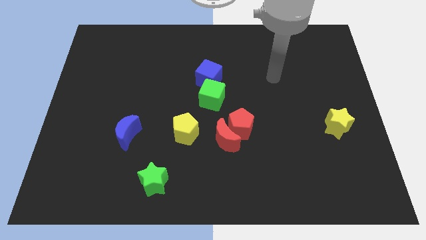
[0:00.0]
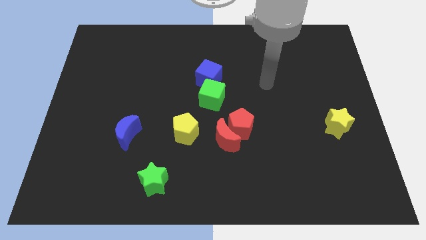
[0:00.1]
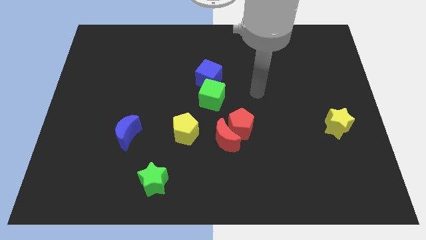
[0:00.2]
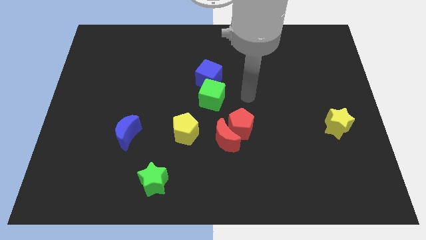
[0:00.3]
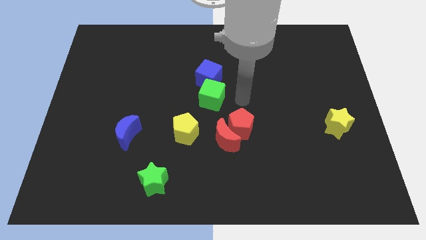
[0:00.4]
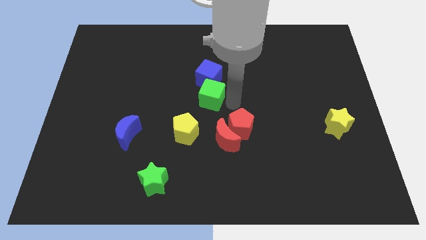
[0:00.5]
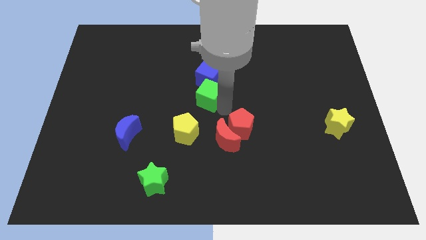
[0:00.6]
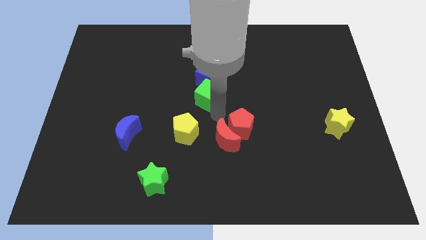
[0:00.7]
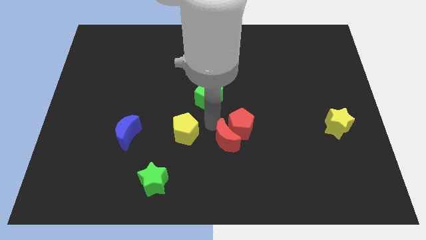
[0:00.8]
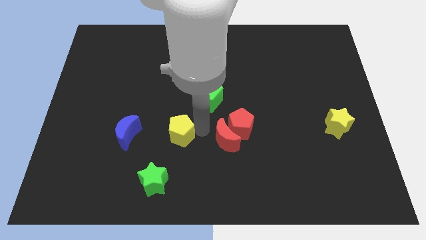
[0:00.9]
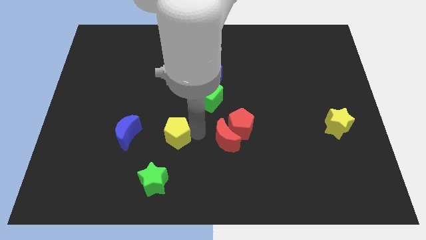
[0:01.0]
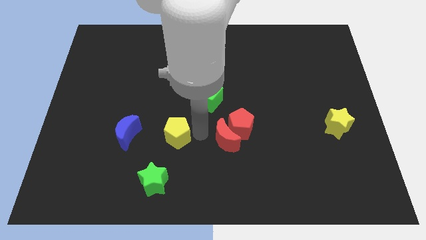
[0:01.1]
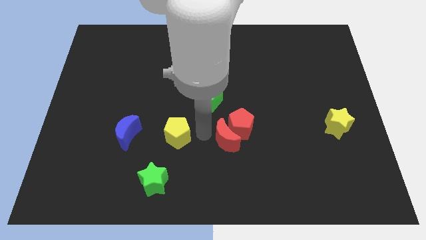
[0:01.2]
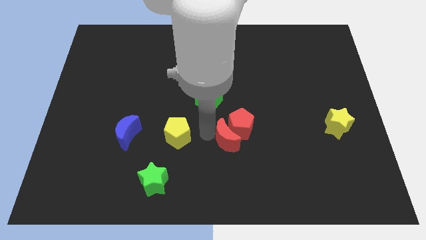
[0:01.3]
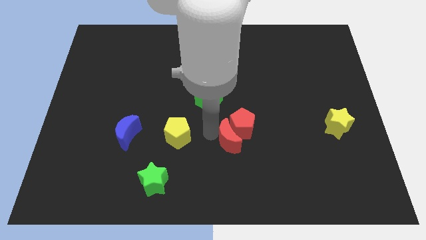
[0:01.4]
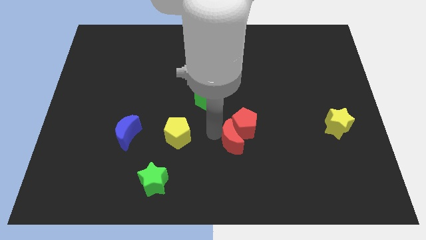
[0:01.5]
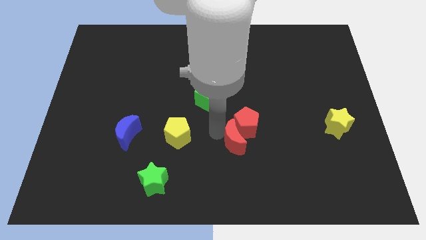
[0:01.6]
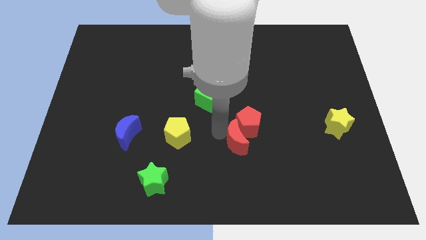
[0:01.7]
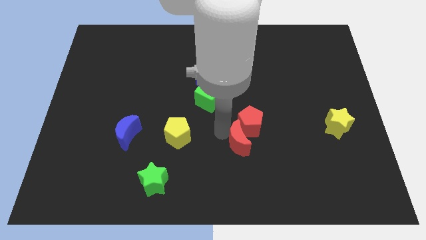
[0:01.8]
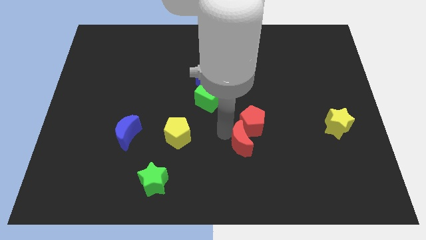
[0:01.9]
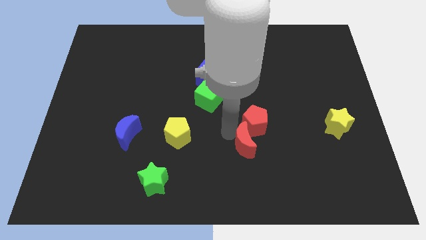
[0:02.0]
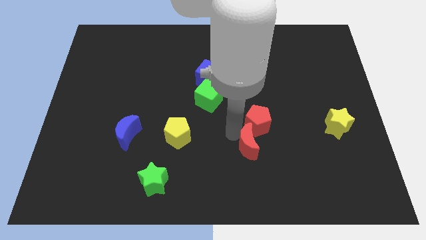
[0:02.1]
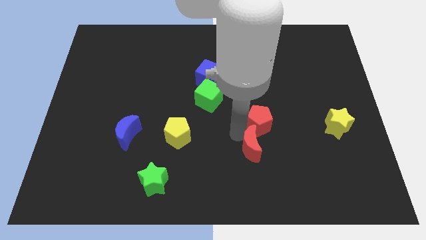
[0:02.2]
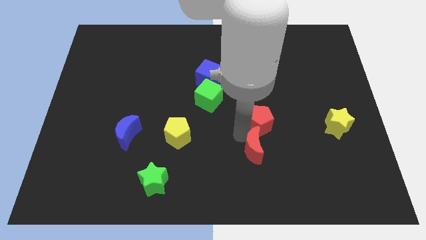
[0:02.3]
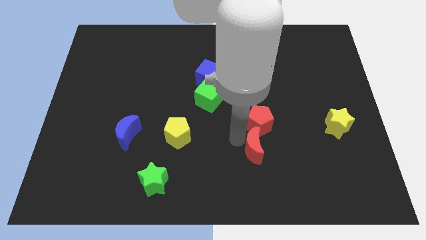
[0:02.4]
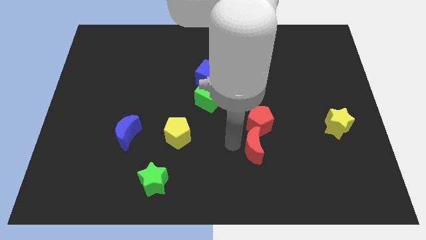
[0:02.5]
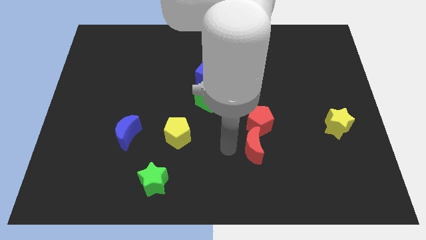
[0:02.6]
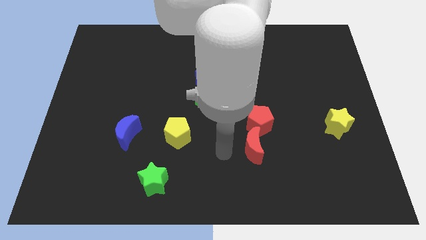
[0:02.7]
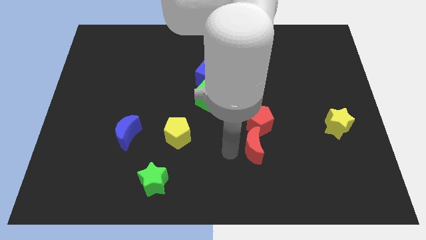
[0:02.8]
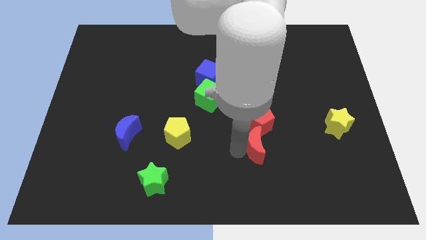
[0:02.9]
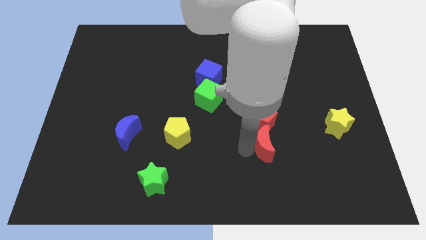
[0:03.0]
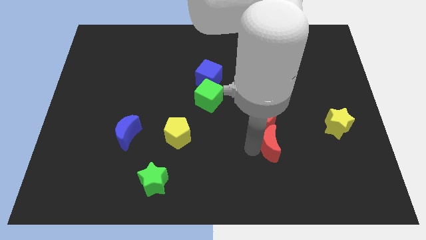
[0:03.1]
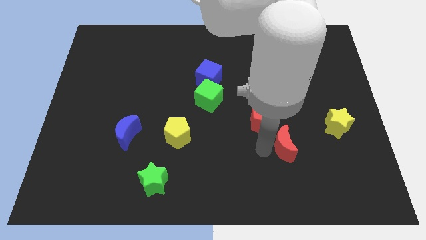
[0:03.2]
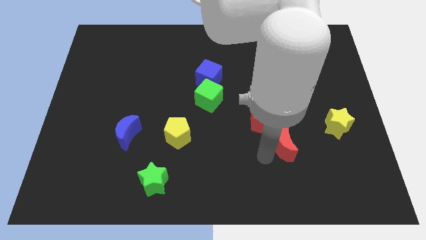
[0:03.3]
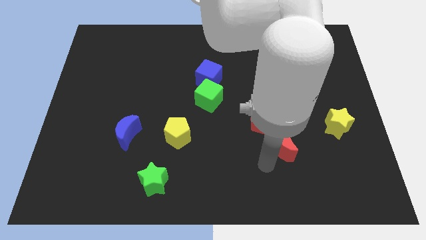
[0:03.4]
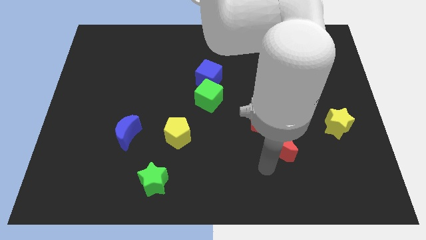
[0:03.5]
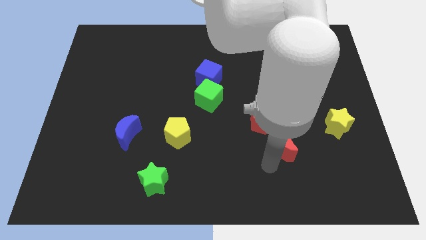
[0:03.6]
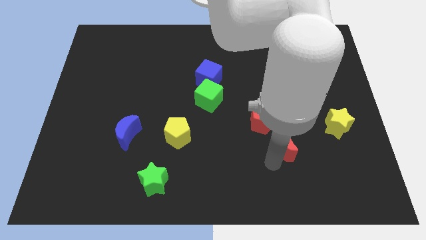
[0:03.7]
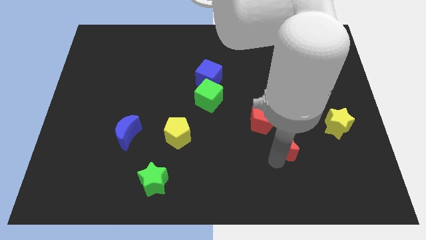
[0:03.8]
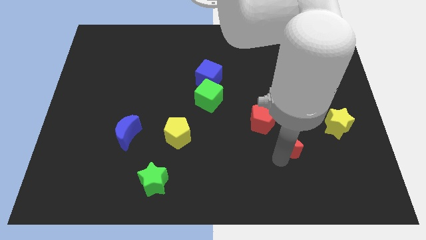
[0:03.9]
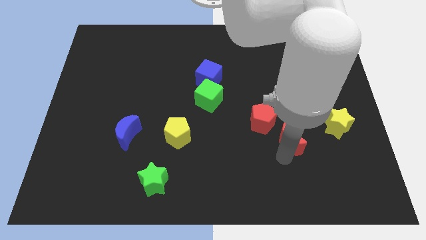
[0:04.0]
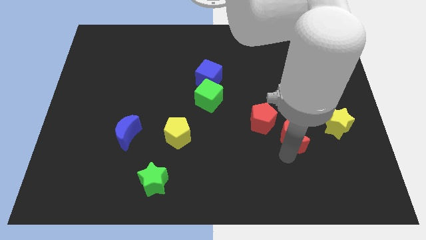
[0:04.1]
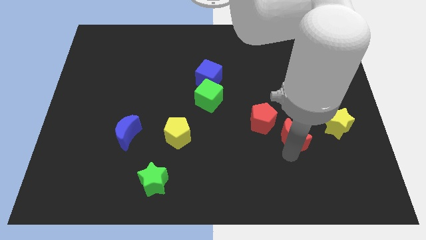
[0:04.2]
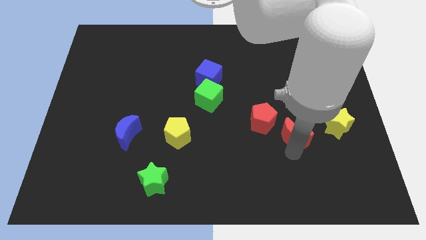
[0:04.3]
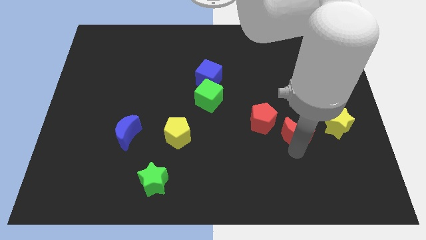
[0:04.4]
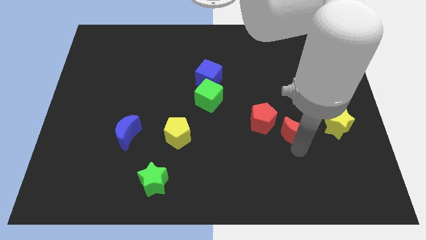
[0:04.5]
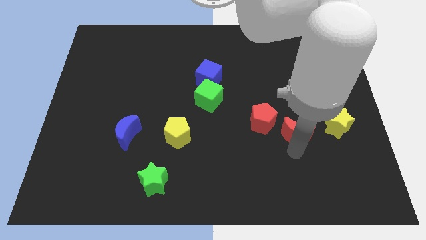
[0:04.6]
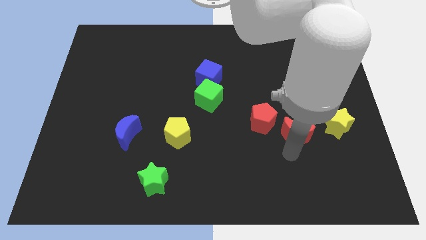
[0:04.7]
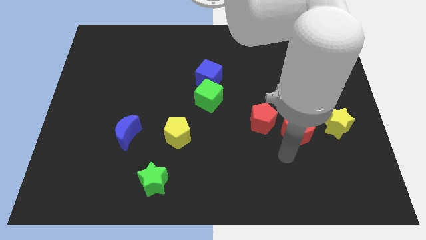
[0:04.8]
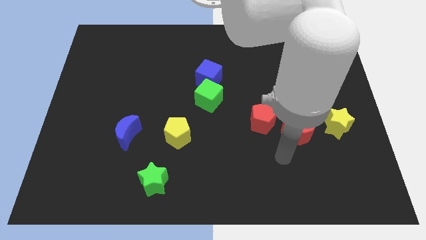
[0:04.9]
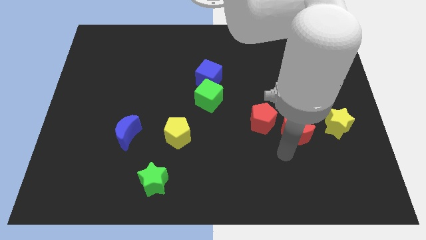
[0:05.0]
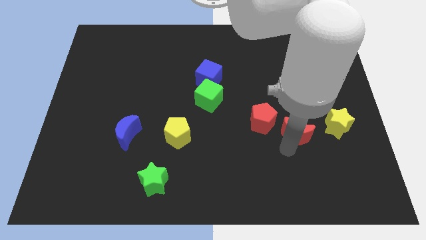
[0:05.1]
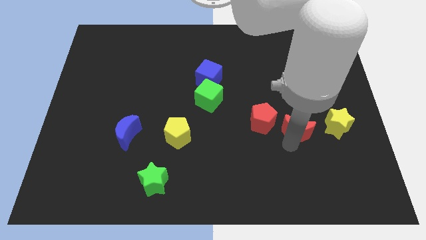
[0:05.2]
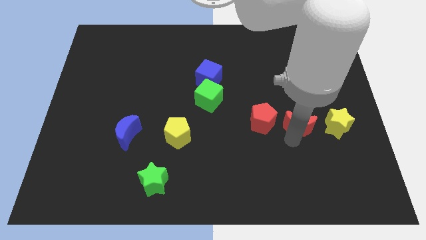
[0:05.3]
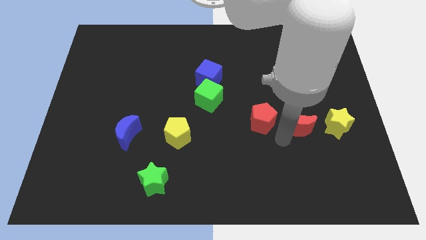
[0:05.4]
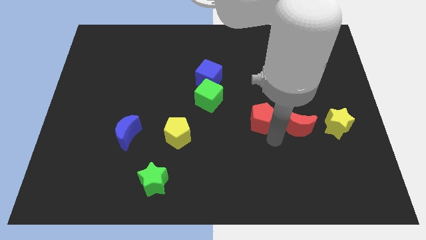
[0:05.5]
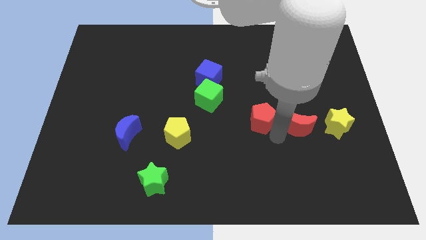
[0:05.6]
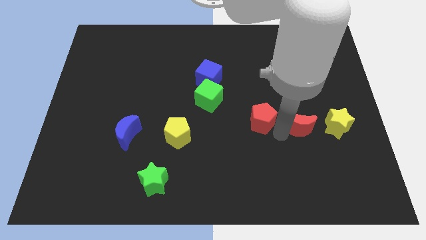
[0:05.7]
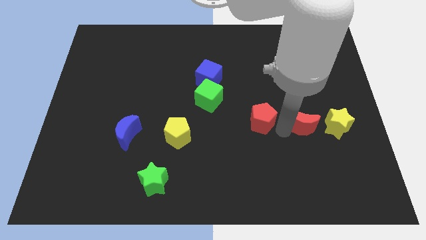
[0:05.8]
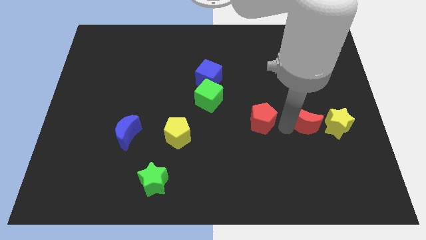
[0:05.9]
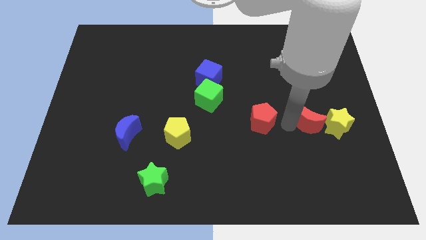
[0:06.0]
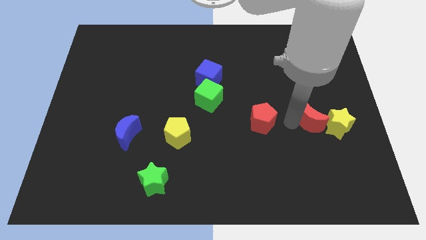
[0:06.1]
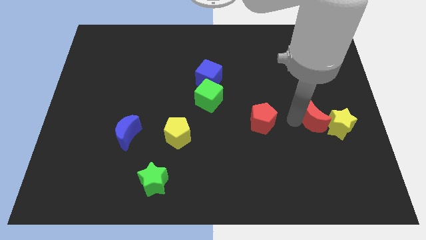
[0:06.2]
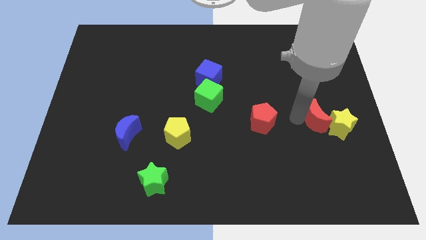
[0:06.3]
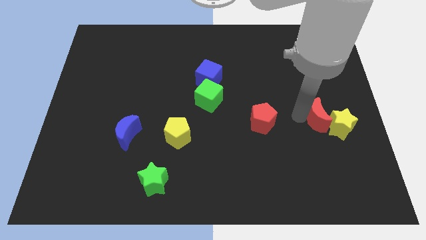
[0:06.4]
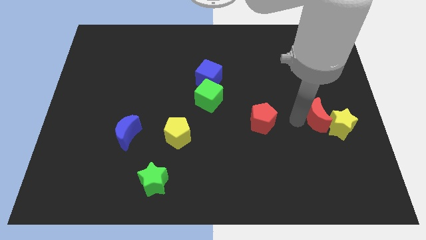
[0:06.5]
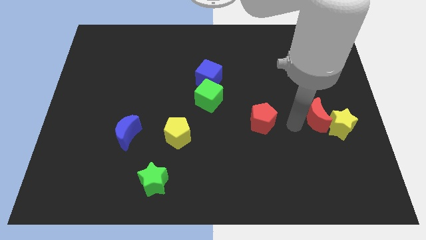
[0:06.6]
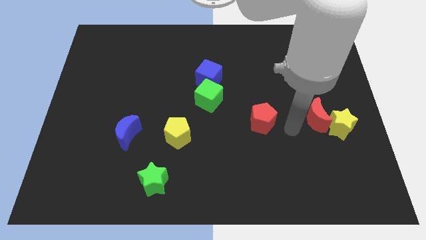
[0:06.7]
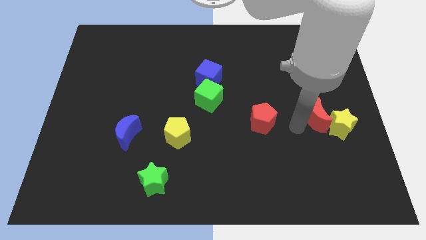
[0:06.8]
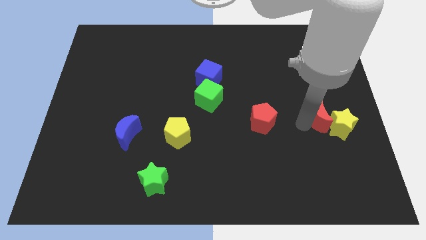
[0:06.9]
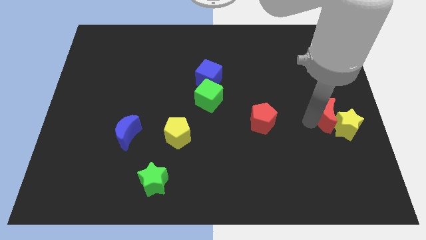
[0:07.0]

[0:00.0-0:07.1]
push the red moon to the right side
